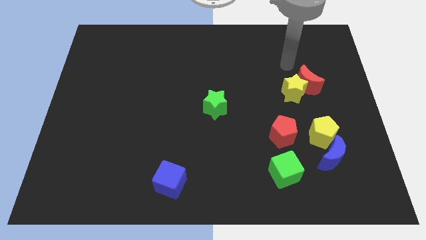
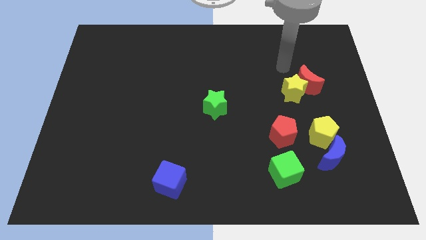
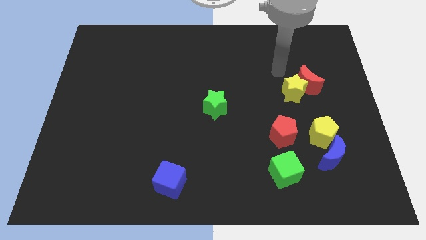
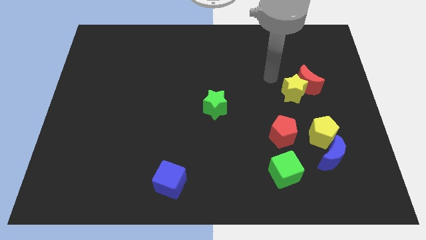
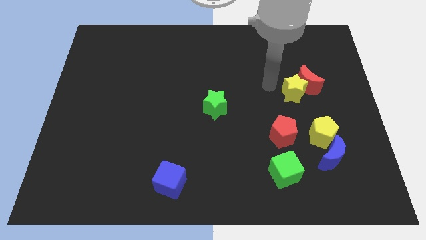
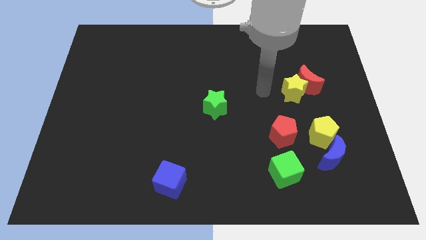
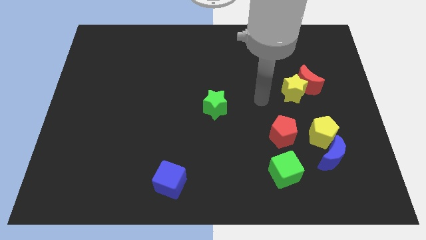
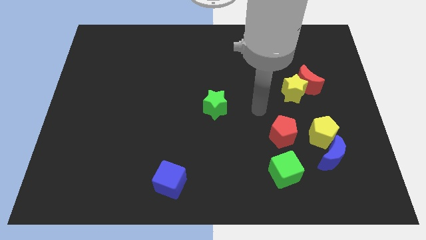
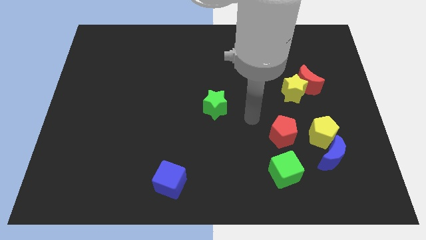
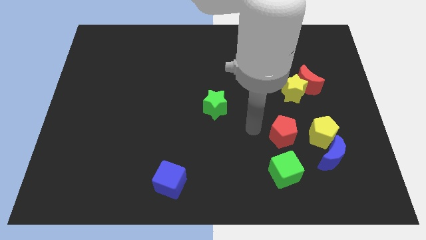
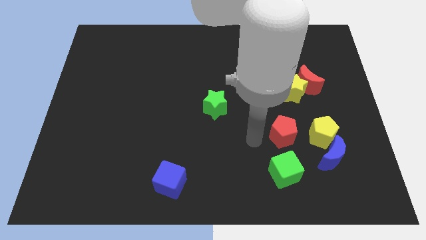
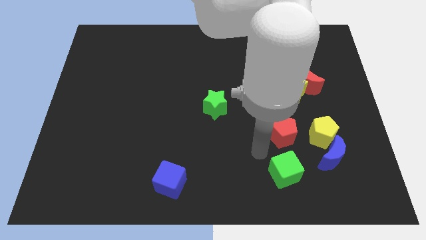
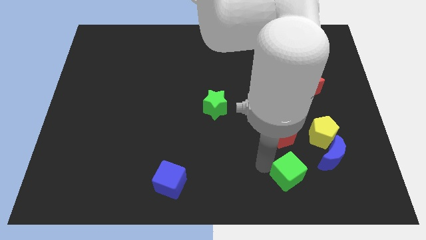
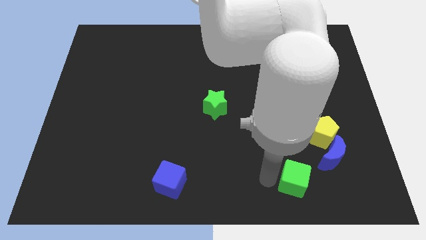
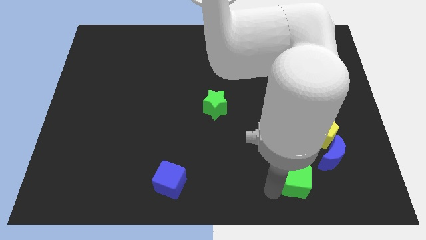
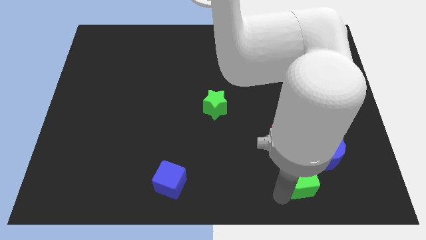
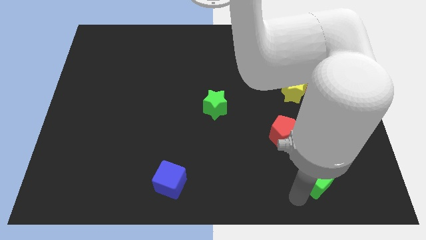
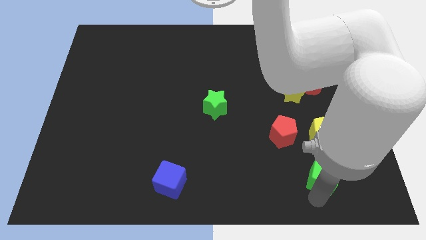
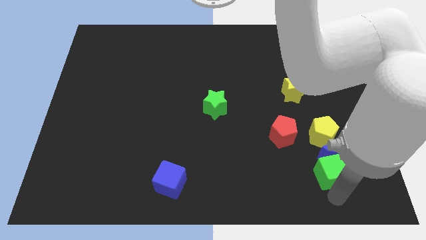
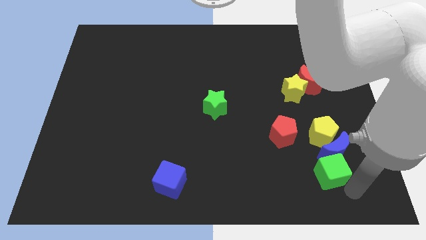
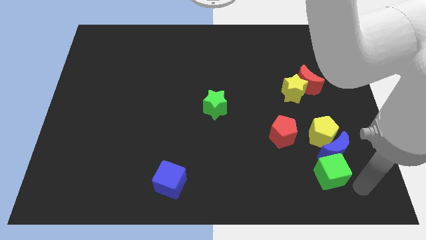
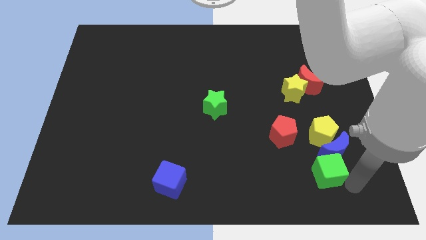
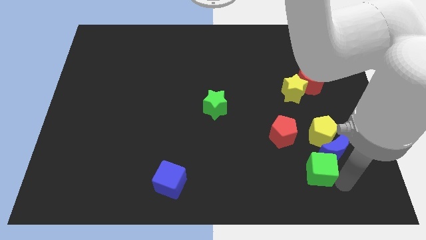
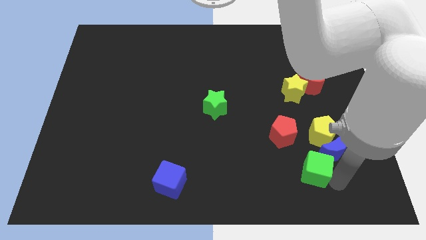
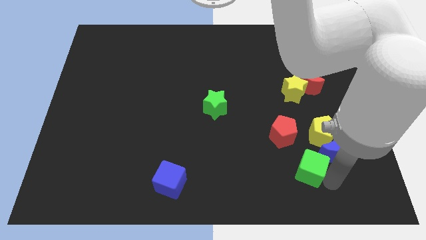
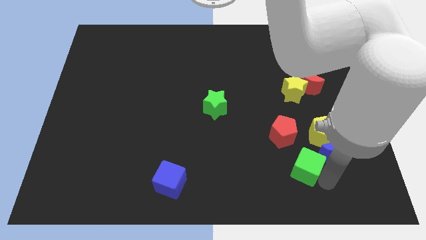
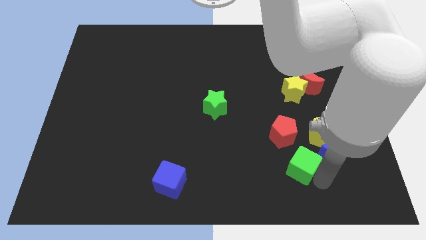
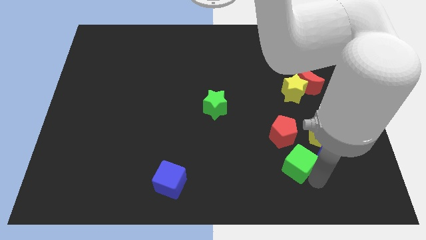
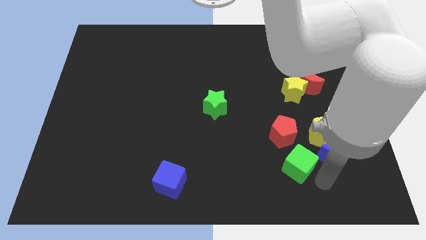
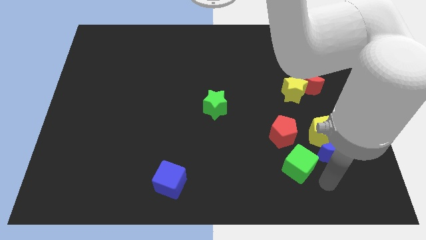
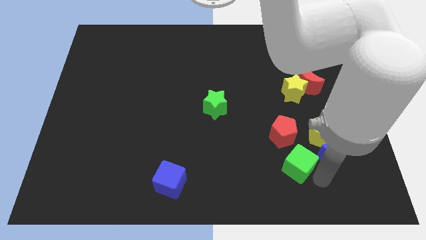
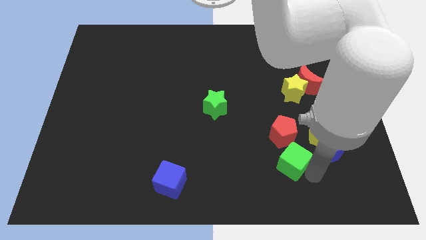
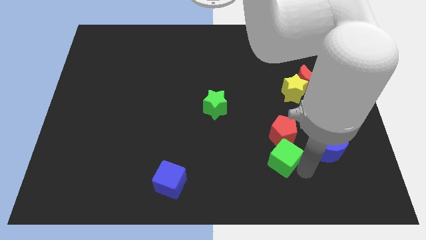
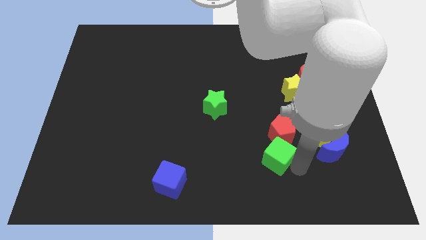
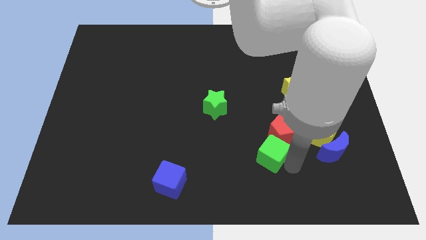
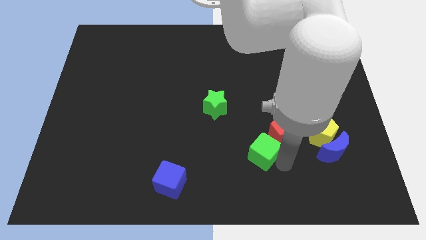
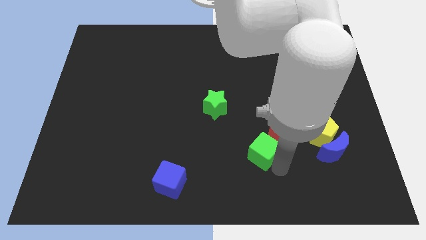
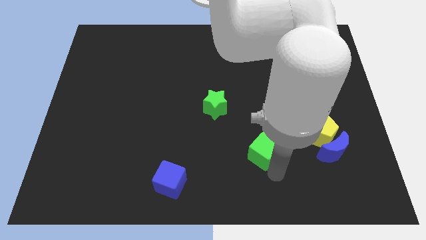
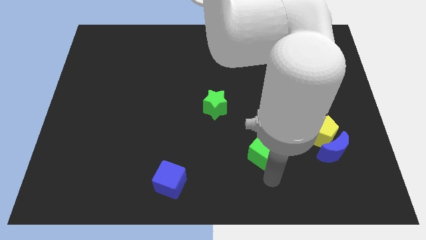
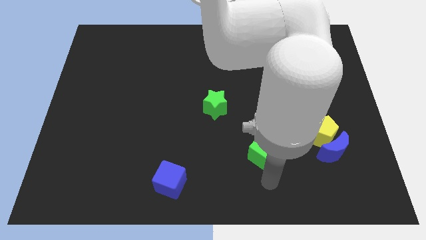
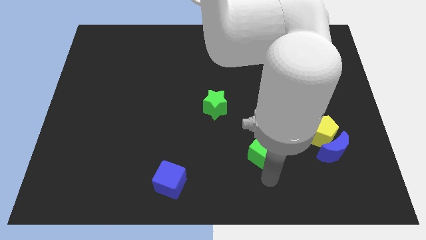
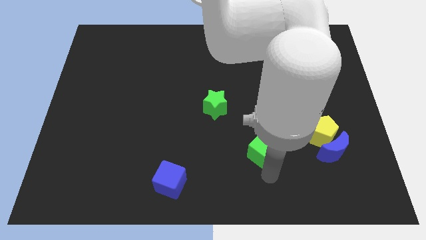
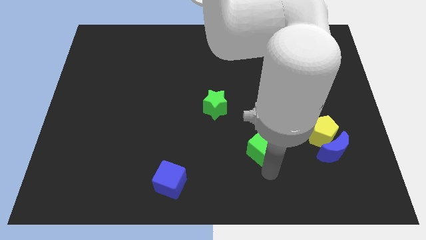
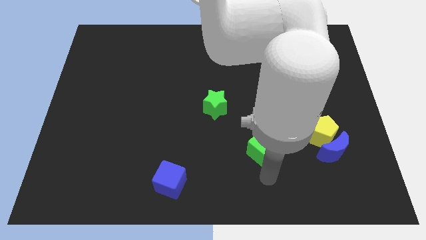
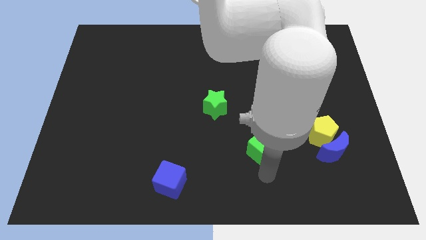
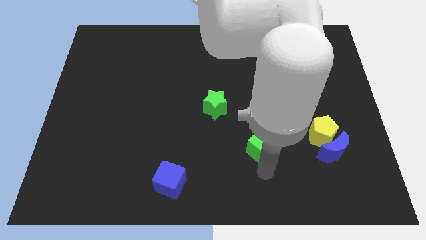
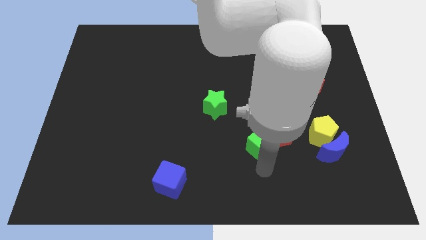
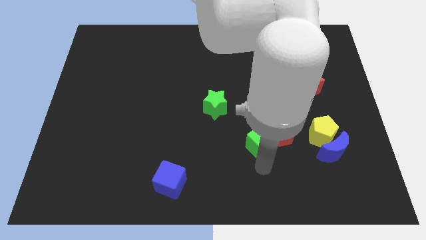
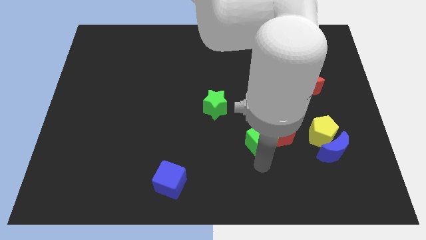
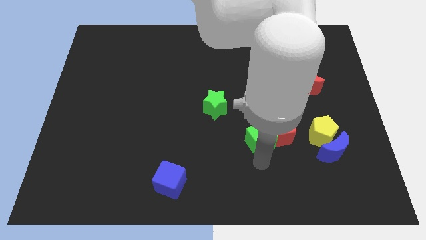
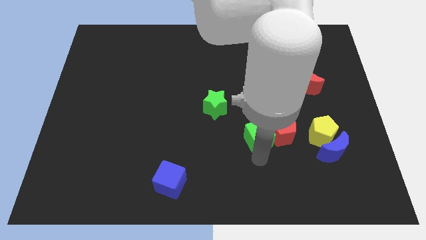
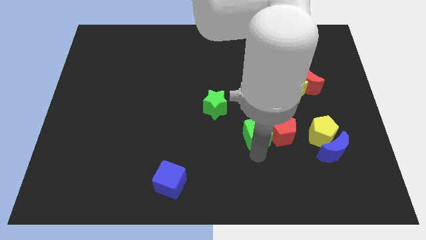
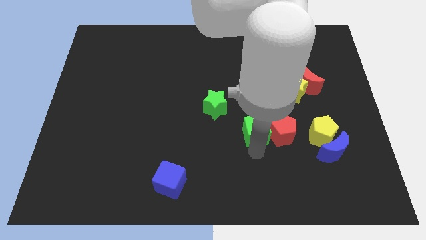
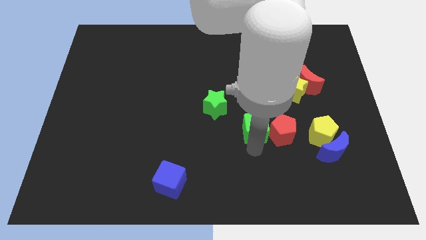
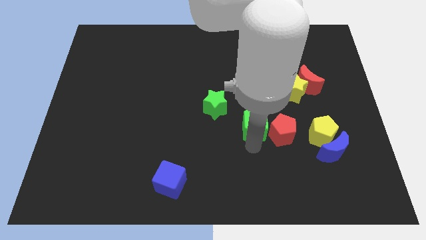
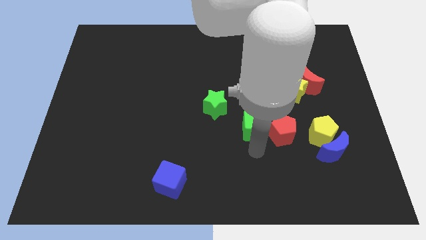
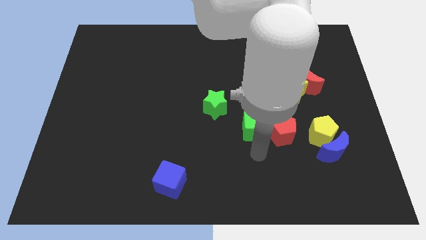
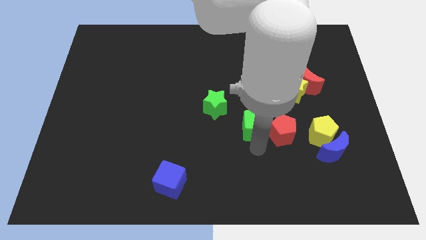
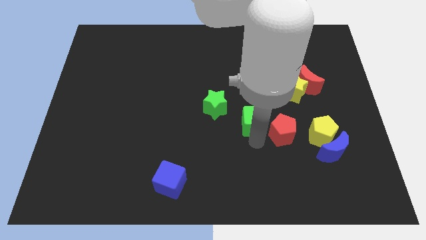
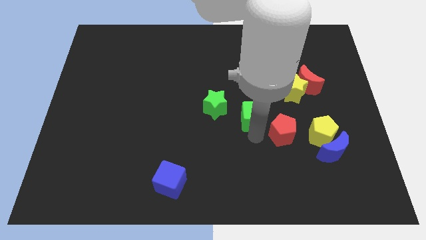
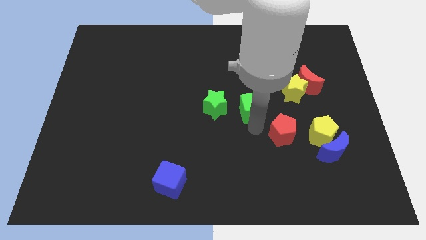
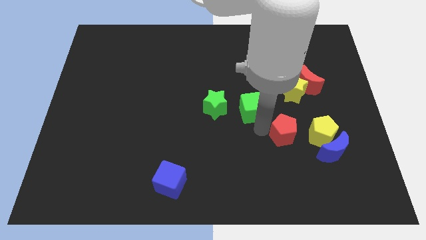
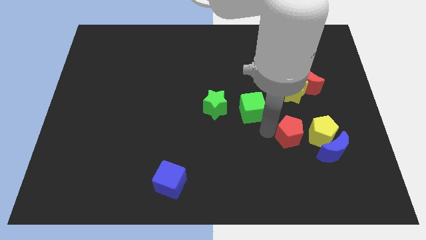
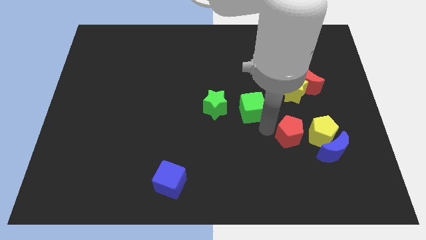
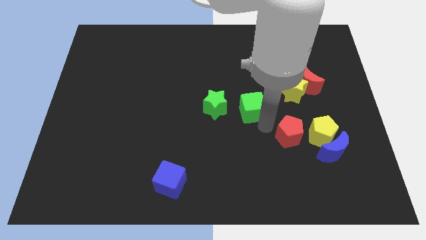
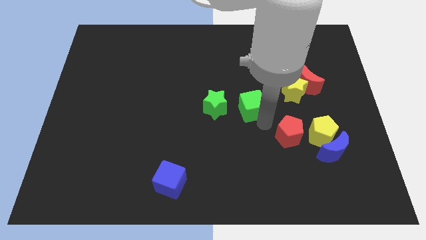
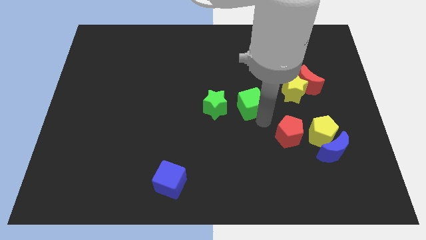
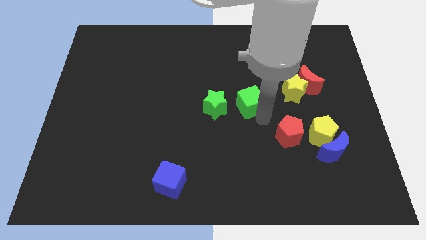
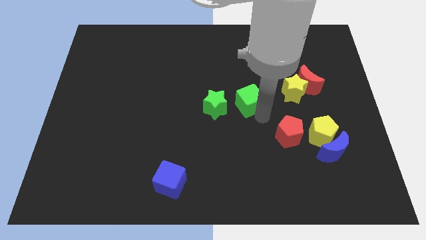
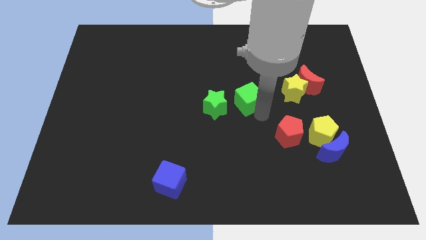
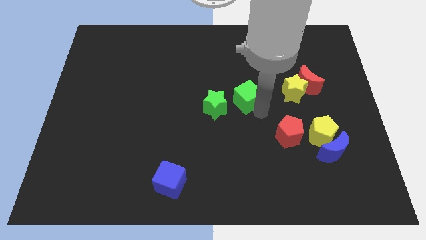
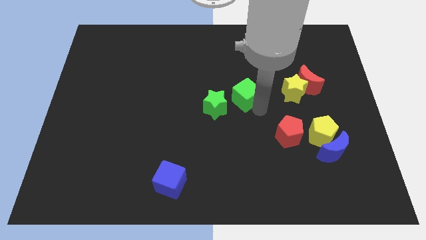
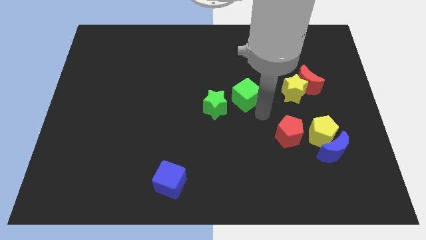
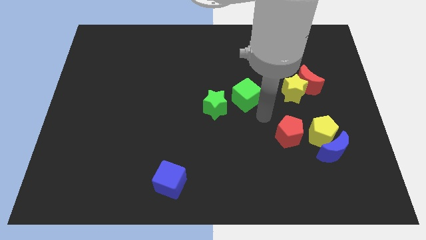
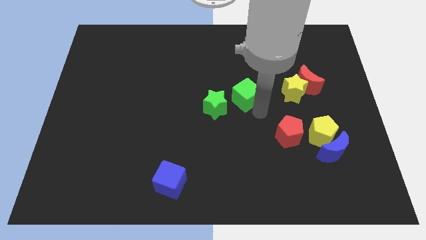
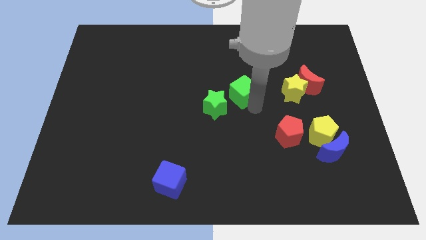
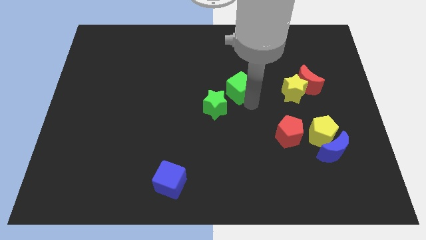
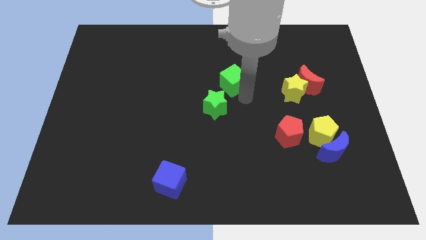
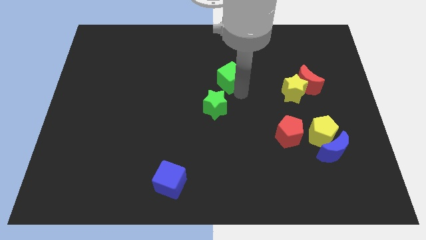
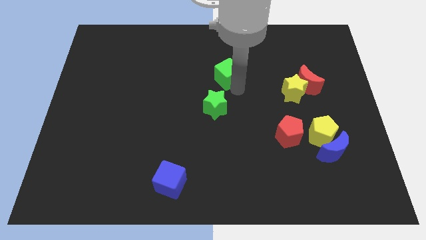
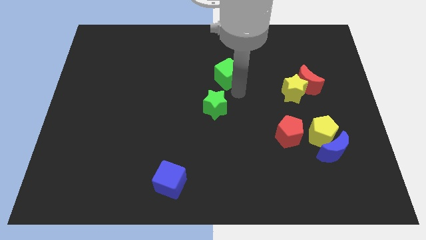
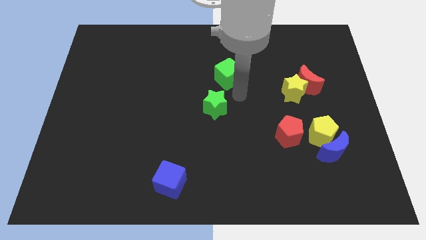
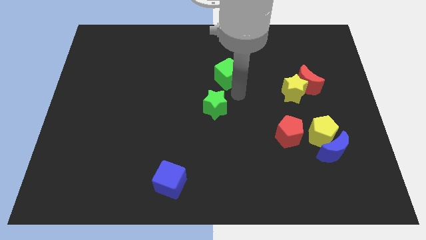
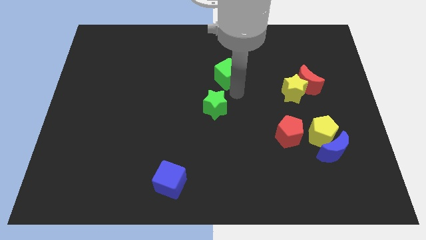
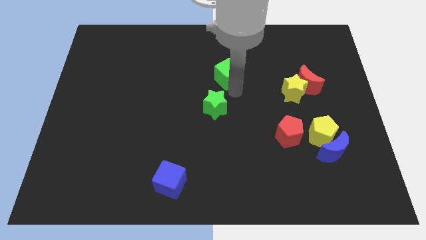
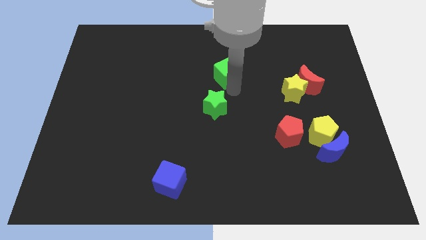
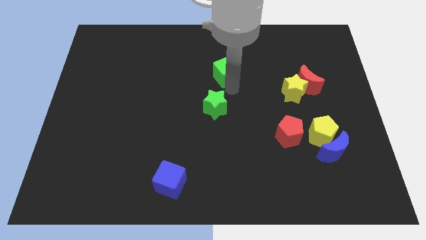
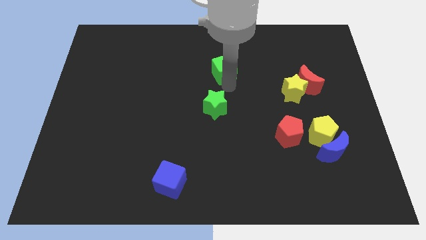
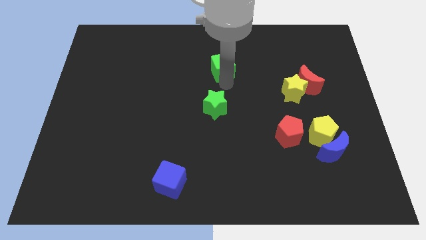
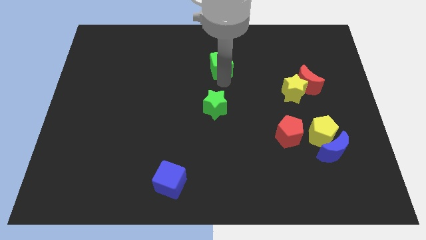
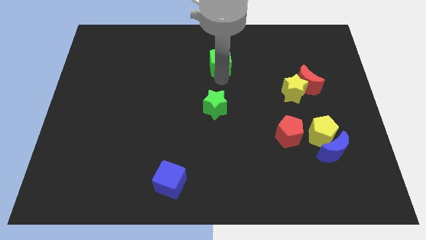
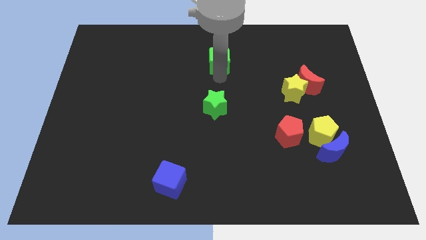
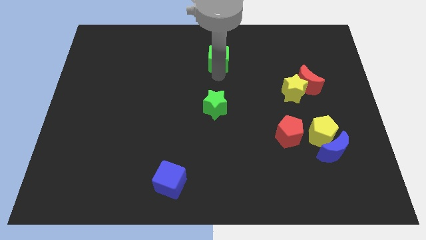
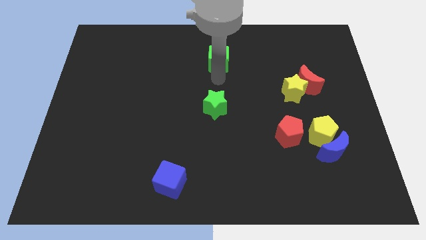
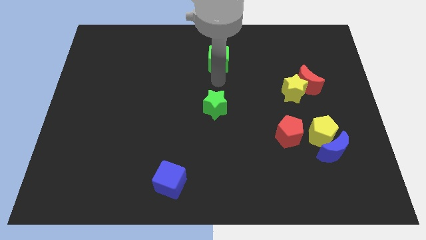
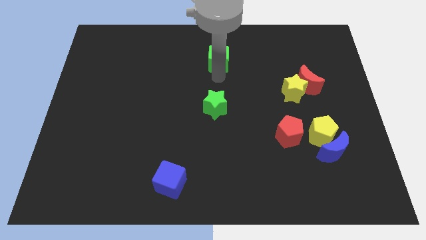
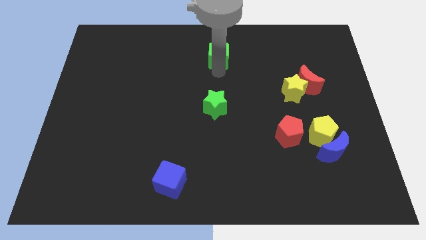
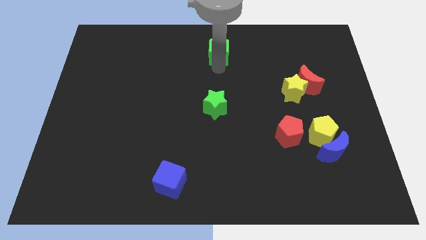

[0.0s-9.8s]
put the green cube to the towards your base
